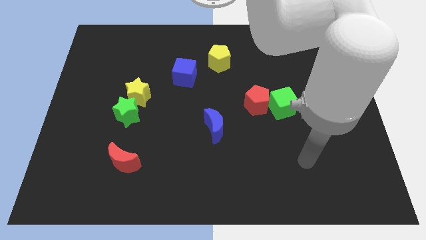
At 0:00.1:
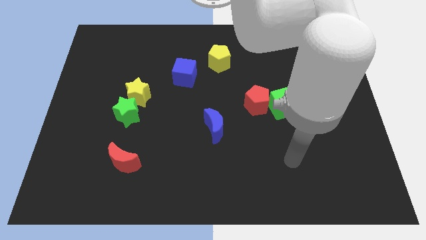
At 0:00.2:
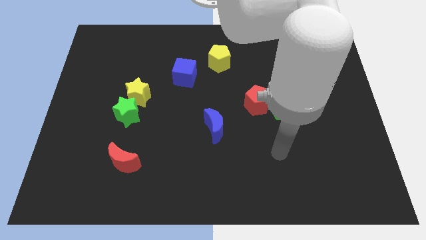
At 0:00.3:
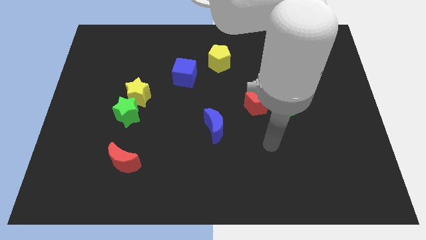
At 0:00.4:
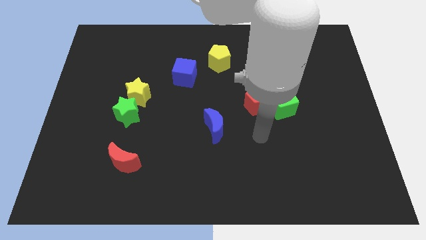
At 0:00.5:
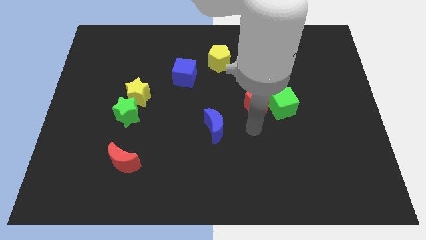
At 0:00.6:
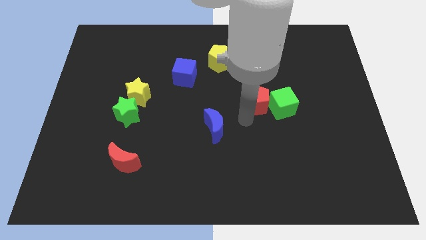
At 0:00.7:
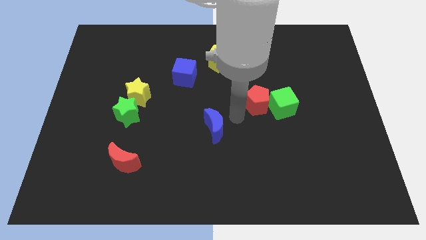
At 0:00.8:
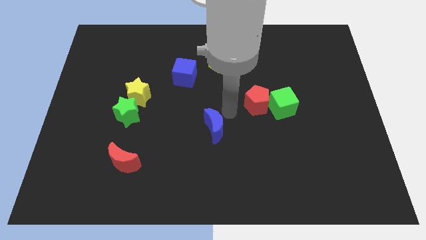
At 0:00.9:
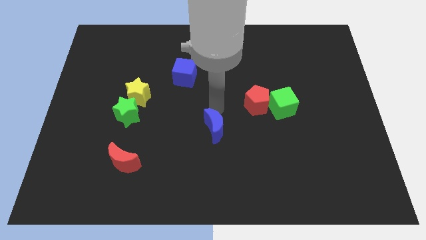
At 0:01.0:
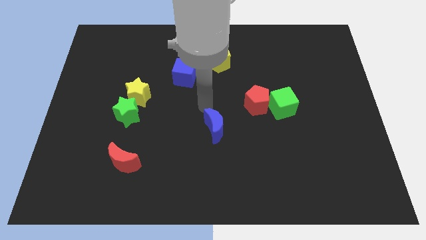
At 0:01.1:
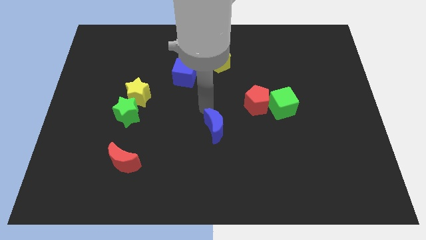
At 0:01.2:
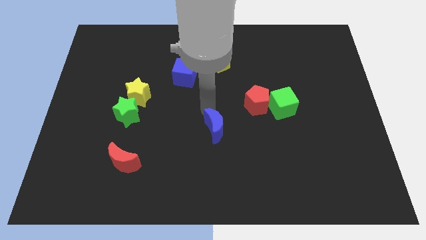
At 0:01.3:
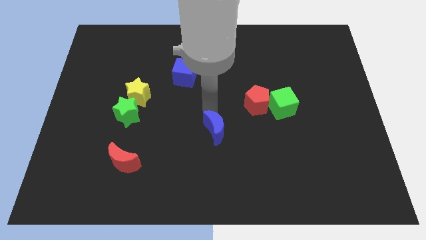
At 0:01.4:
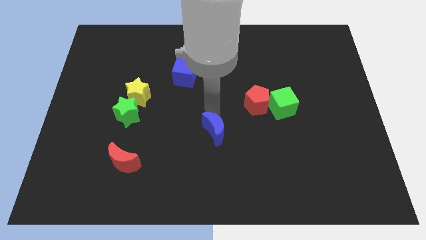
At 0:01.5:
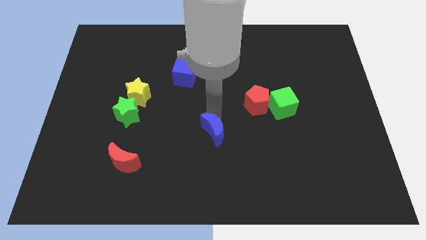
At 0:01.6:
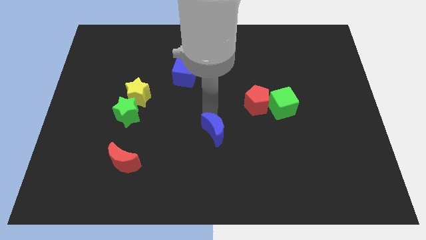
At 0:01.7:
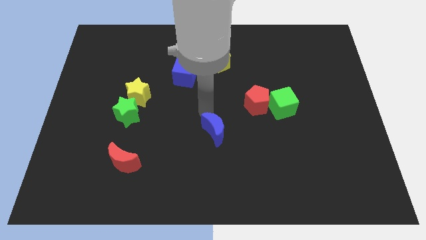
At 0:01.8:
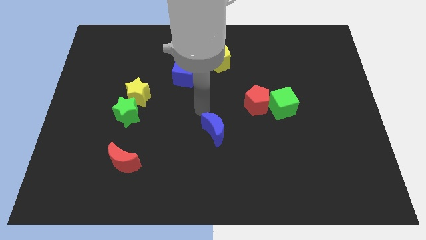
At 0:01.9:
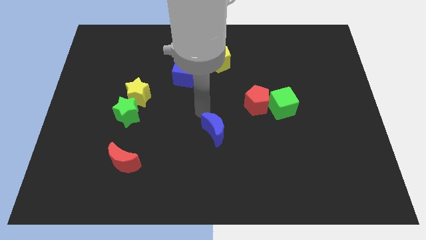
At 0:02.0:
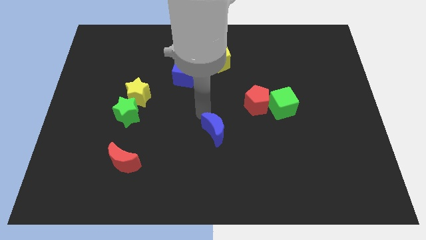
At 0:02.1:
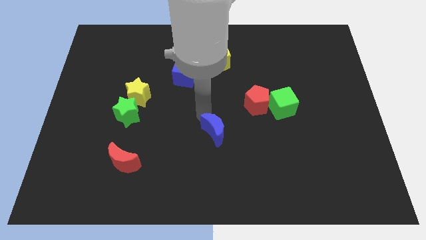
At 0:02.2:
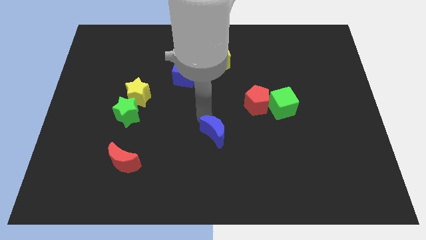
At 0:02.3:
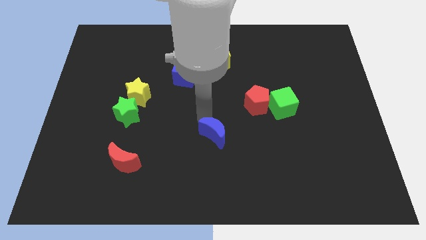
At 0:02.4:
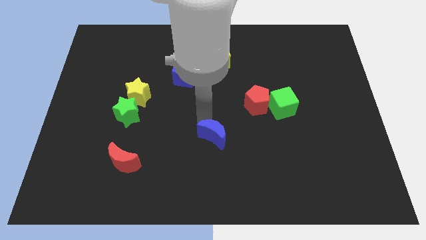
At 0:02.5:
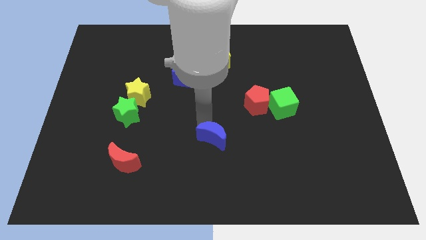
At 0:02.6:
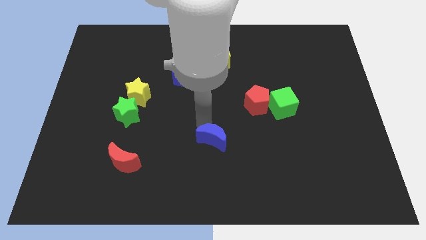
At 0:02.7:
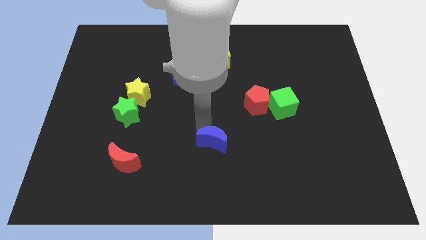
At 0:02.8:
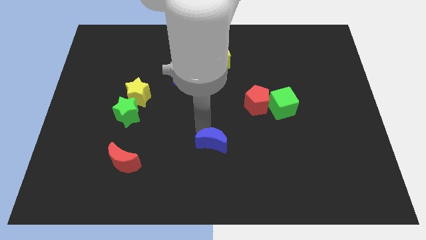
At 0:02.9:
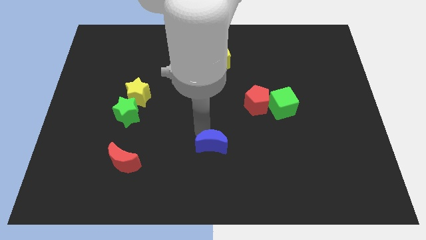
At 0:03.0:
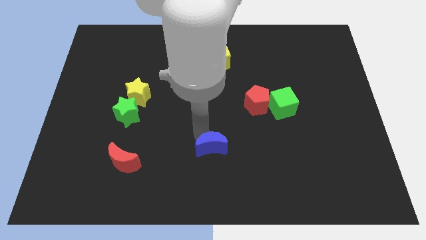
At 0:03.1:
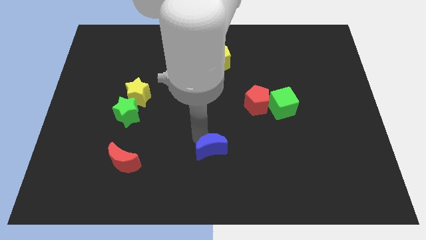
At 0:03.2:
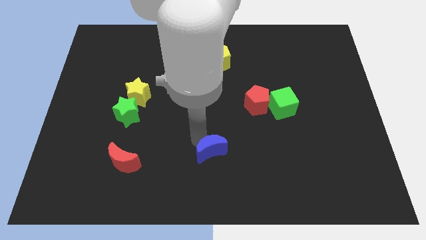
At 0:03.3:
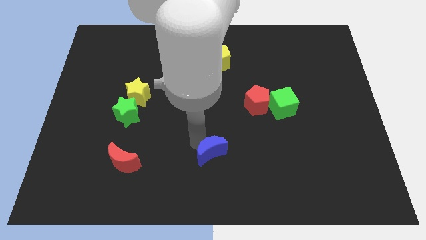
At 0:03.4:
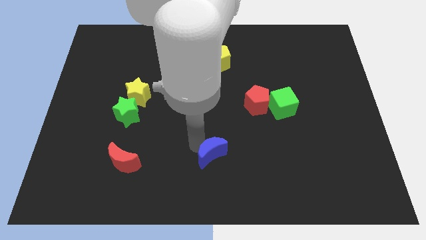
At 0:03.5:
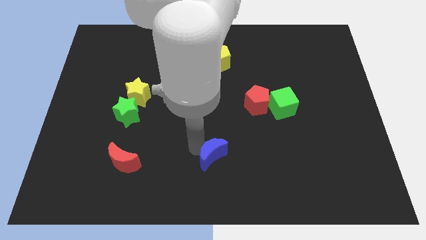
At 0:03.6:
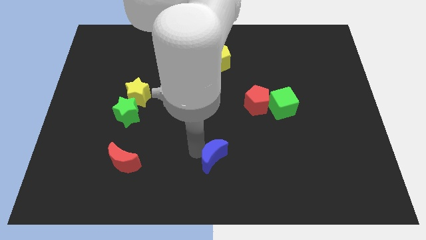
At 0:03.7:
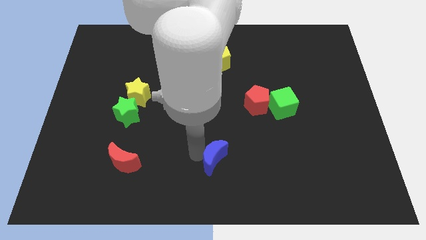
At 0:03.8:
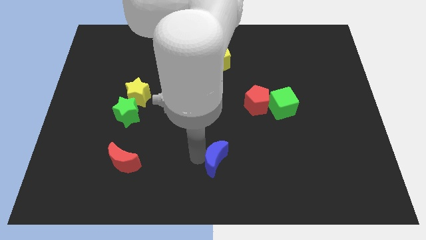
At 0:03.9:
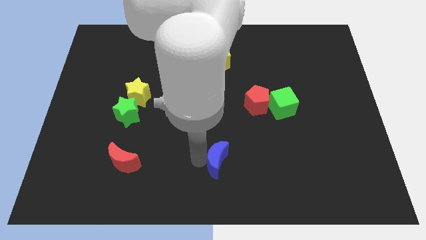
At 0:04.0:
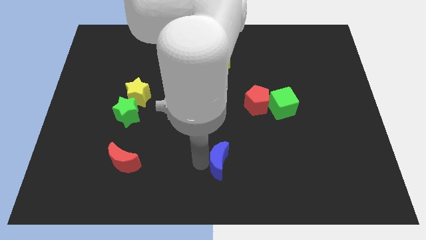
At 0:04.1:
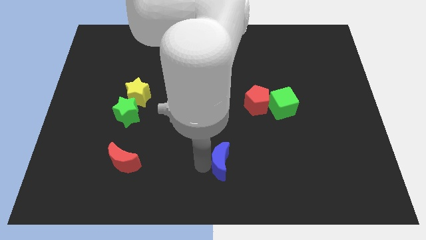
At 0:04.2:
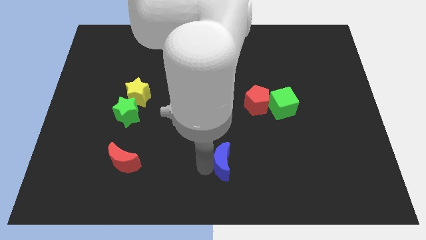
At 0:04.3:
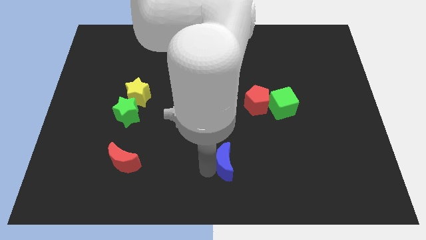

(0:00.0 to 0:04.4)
move the blue moon slightly downwards and then to the right

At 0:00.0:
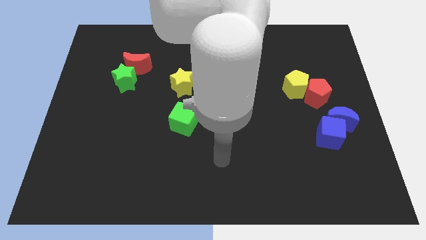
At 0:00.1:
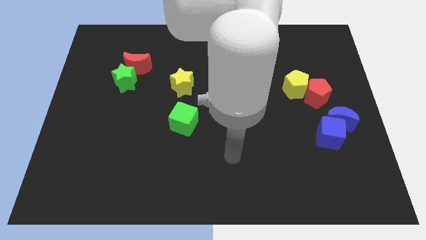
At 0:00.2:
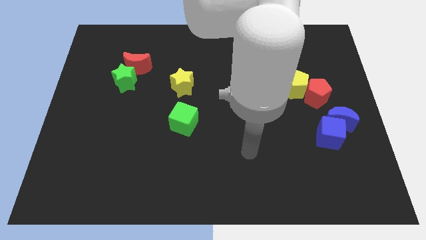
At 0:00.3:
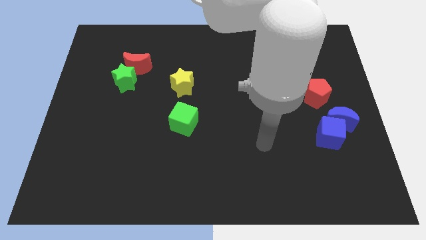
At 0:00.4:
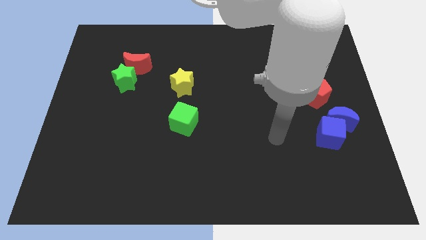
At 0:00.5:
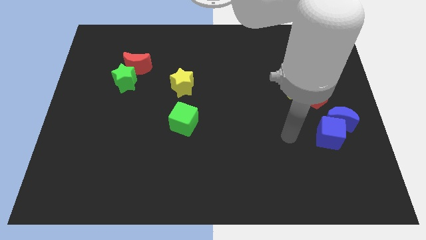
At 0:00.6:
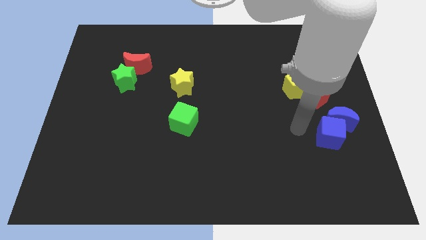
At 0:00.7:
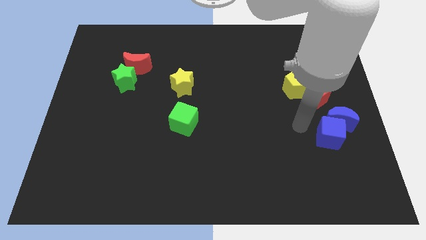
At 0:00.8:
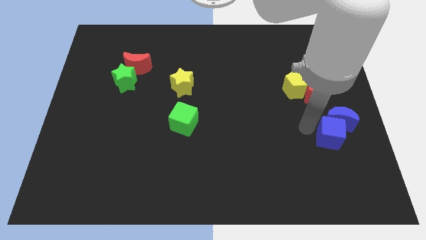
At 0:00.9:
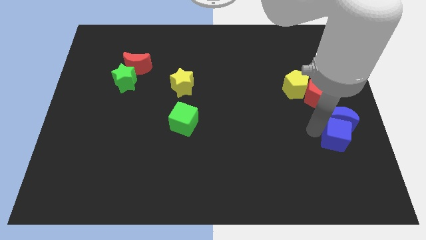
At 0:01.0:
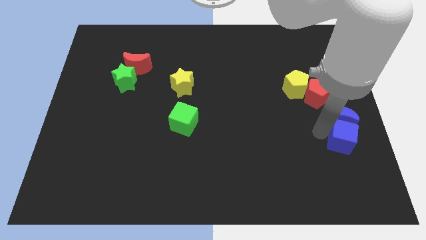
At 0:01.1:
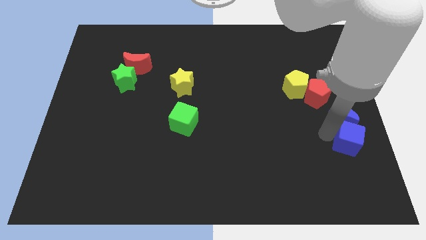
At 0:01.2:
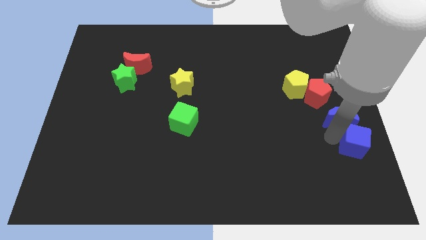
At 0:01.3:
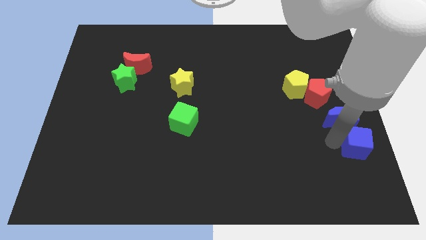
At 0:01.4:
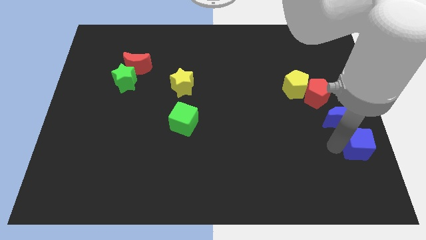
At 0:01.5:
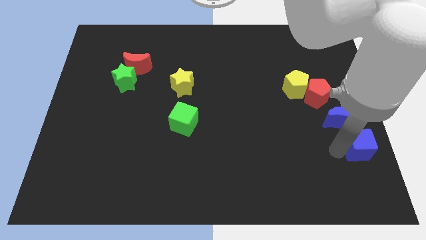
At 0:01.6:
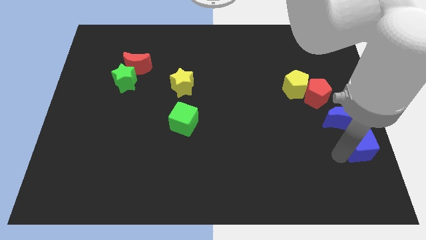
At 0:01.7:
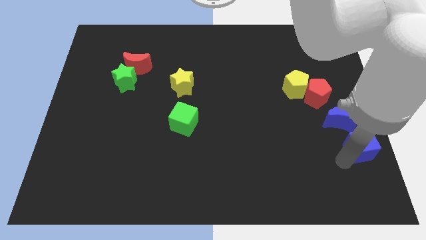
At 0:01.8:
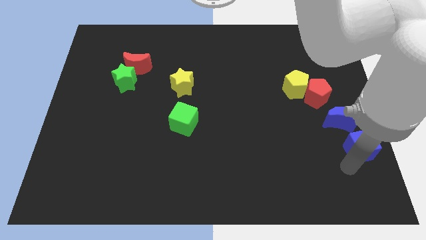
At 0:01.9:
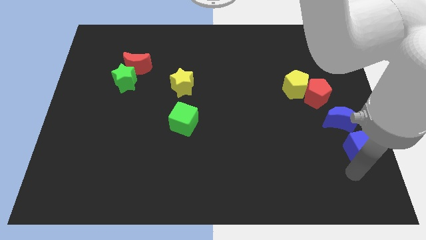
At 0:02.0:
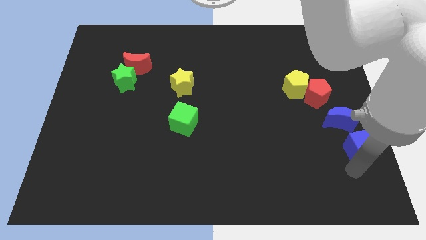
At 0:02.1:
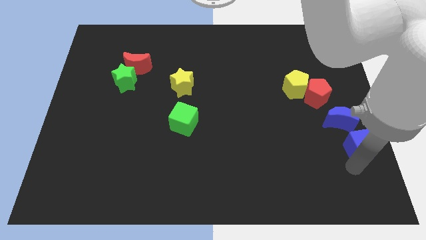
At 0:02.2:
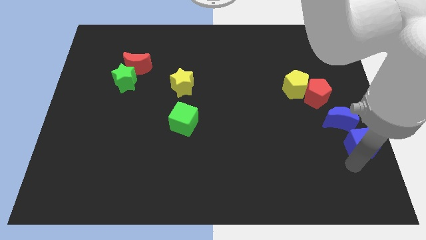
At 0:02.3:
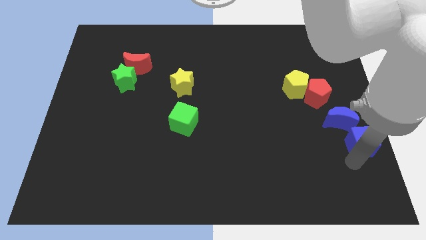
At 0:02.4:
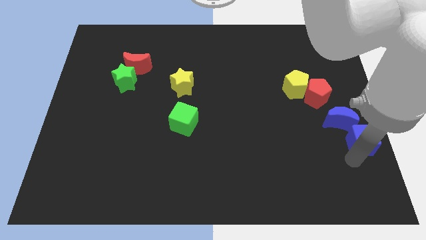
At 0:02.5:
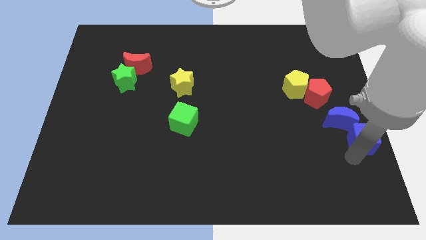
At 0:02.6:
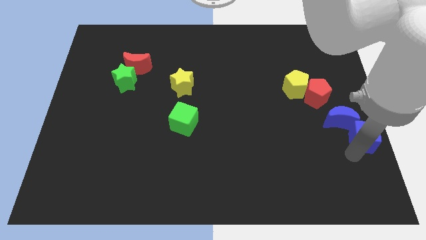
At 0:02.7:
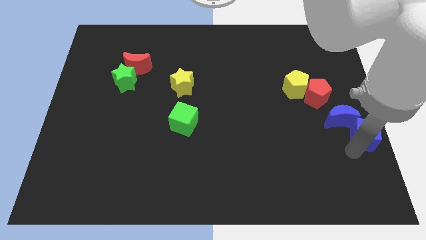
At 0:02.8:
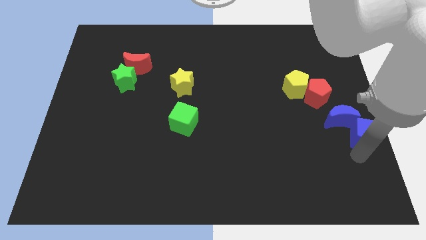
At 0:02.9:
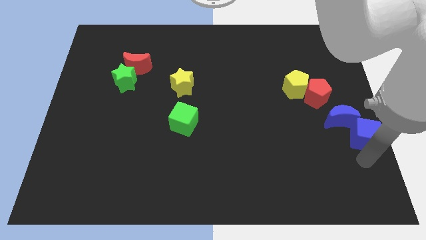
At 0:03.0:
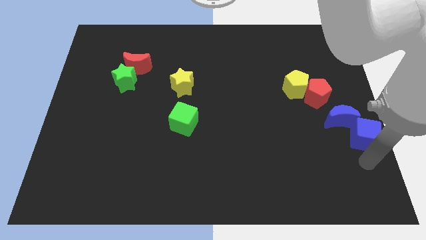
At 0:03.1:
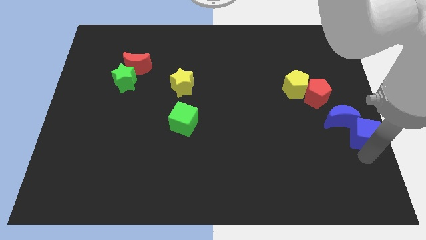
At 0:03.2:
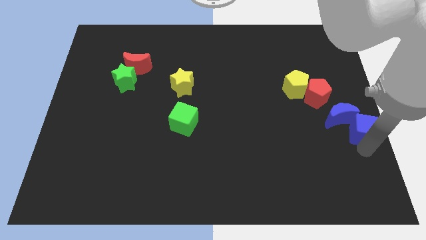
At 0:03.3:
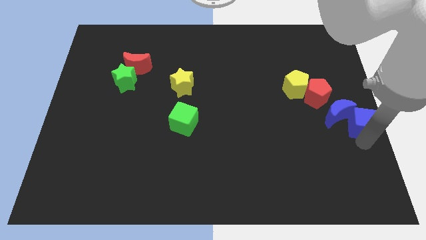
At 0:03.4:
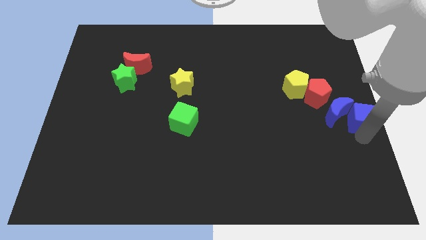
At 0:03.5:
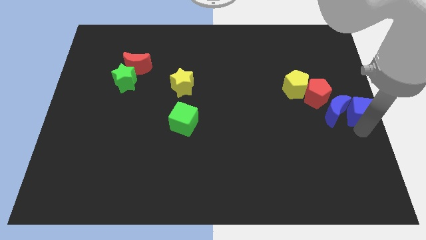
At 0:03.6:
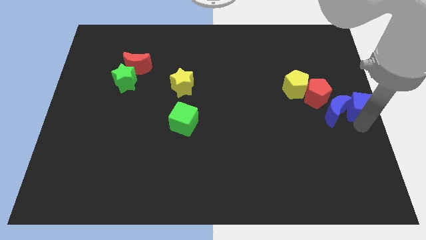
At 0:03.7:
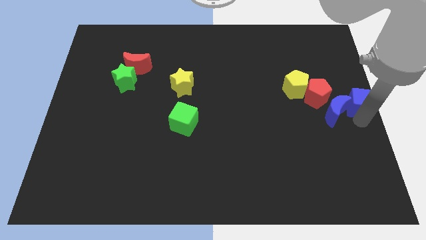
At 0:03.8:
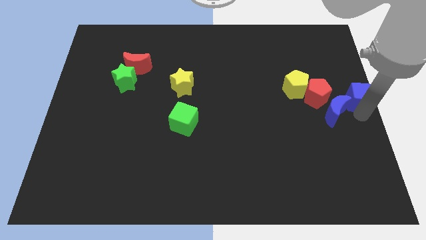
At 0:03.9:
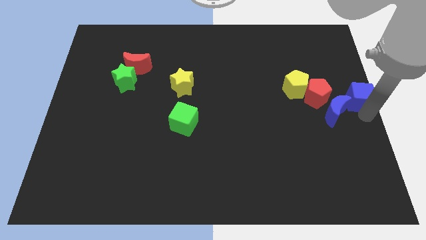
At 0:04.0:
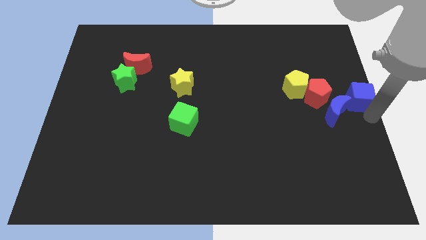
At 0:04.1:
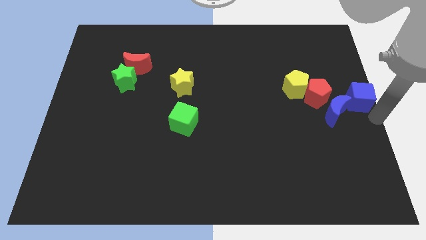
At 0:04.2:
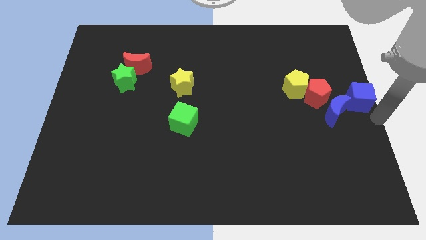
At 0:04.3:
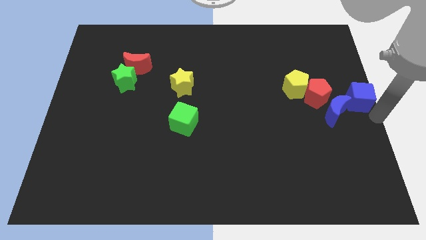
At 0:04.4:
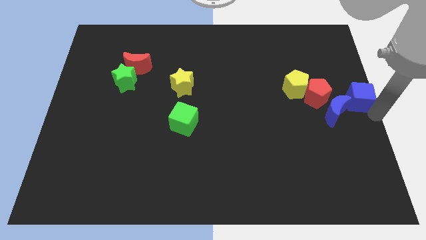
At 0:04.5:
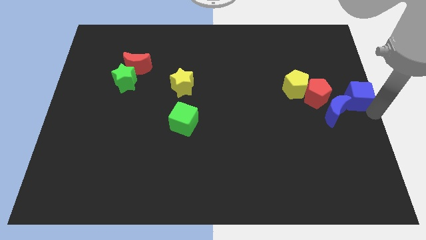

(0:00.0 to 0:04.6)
slide the blue cube up somewhat
